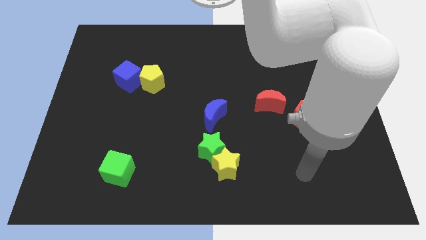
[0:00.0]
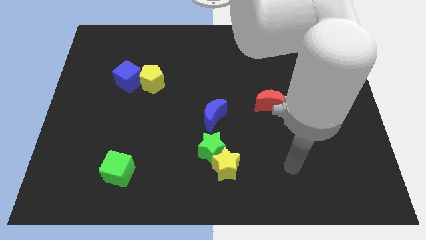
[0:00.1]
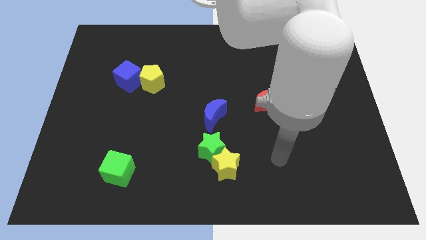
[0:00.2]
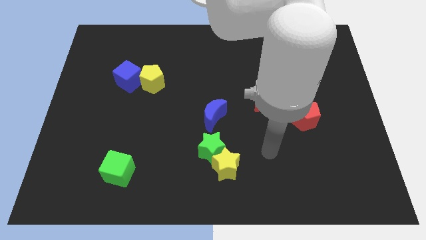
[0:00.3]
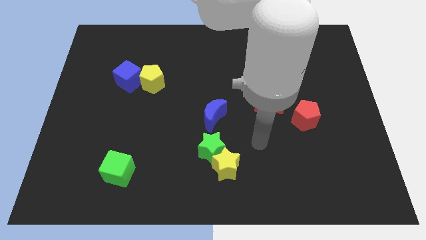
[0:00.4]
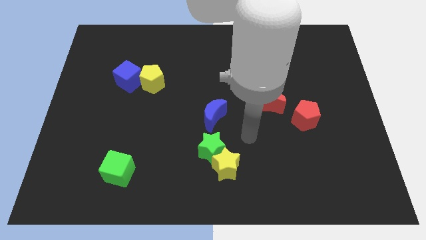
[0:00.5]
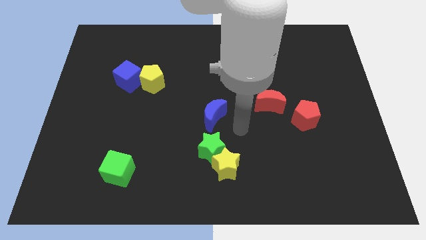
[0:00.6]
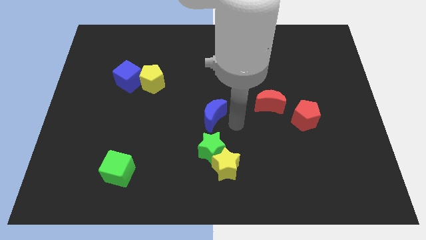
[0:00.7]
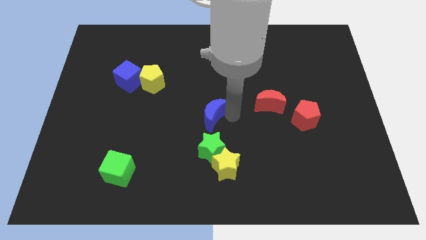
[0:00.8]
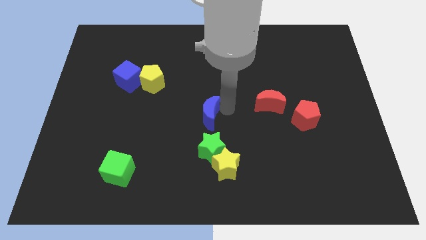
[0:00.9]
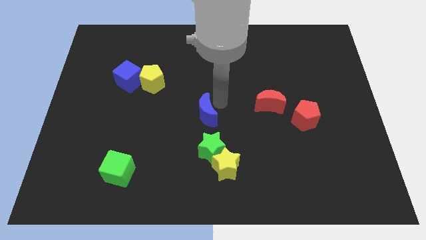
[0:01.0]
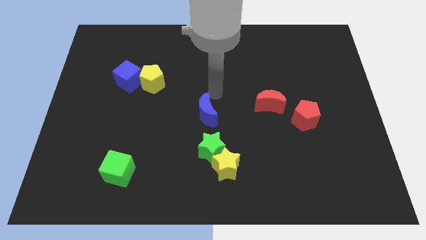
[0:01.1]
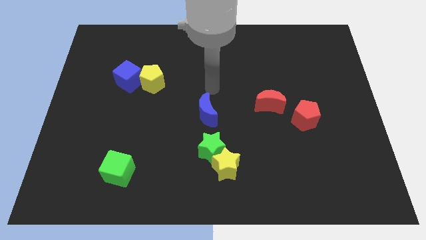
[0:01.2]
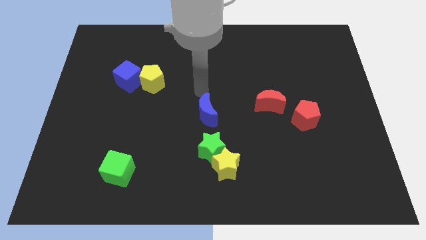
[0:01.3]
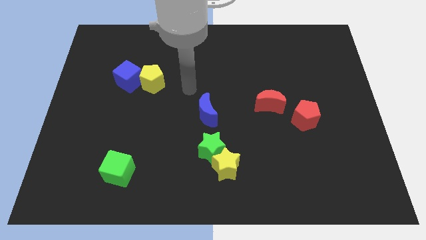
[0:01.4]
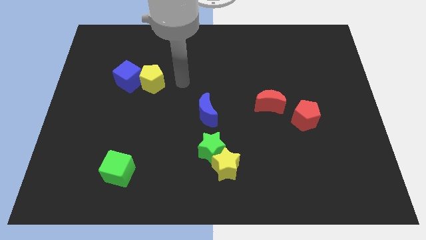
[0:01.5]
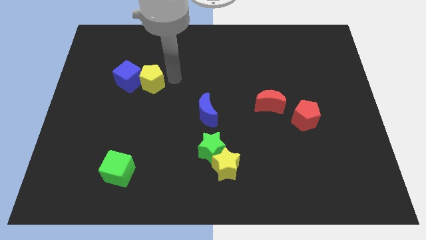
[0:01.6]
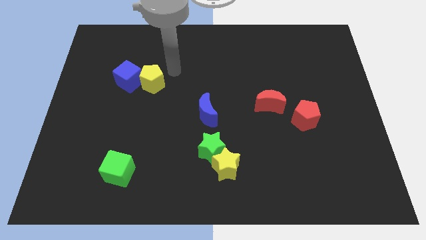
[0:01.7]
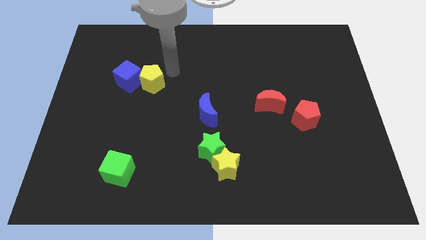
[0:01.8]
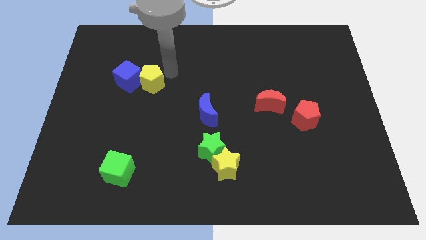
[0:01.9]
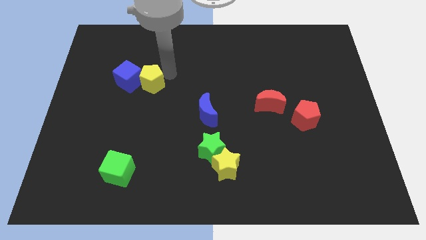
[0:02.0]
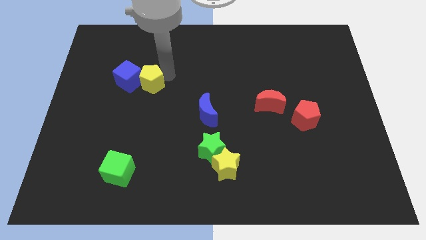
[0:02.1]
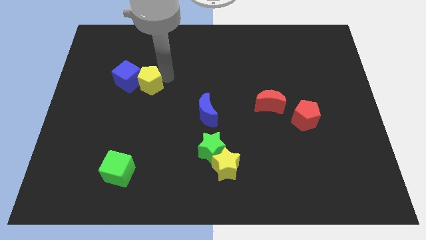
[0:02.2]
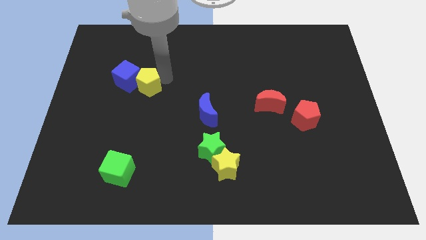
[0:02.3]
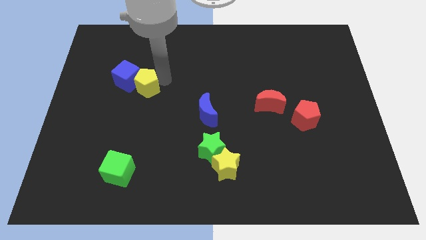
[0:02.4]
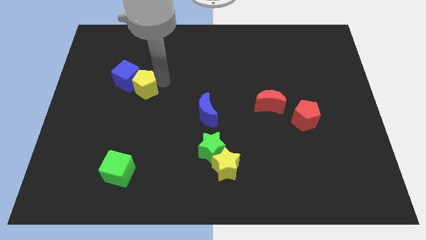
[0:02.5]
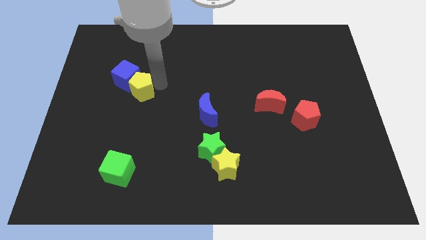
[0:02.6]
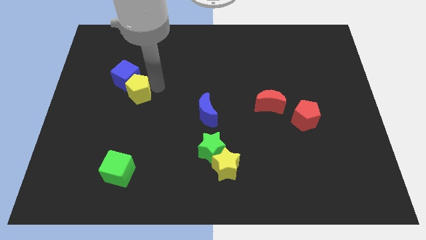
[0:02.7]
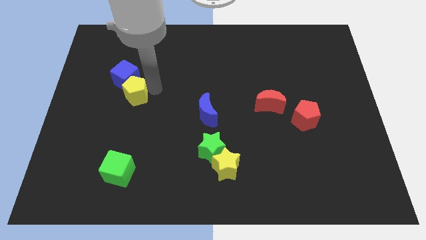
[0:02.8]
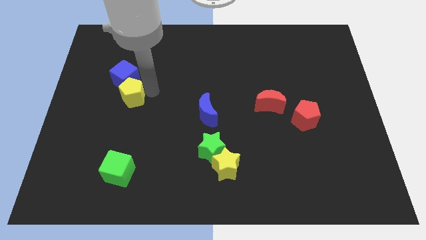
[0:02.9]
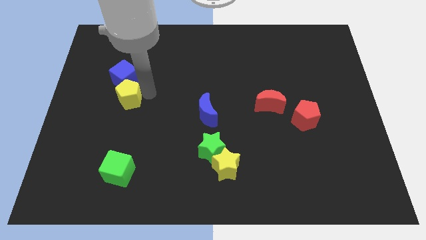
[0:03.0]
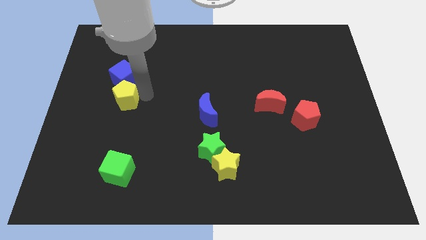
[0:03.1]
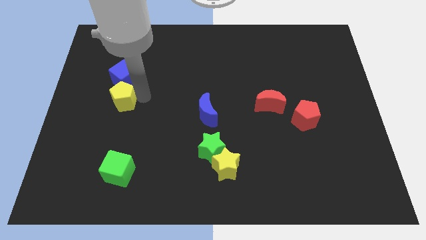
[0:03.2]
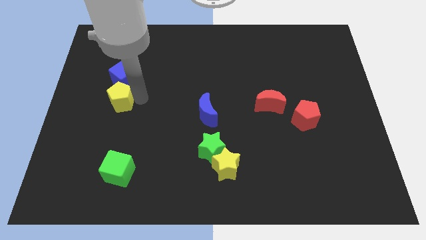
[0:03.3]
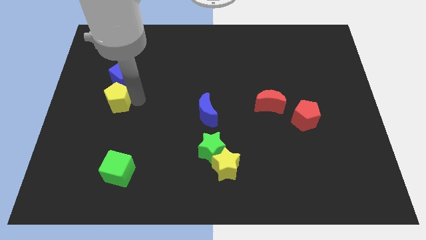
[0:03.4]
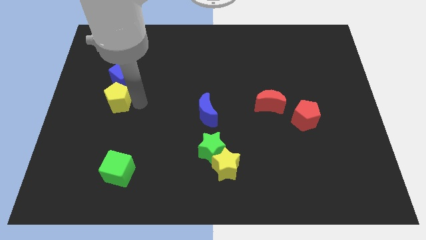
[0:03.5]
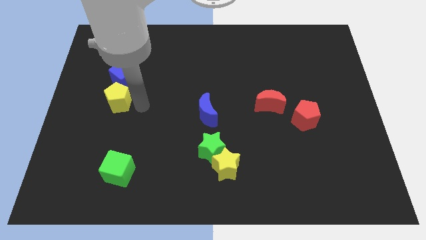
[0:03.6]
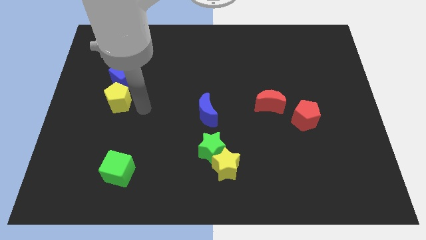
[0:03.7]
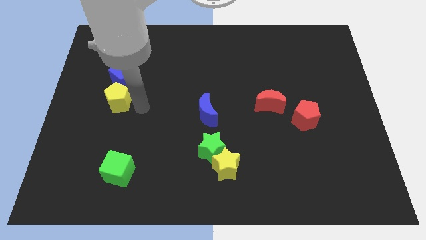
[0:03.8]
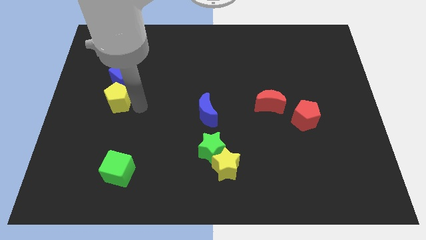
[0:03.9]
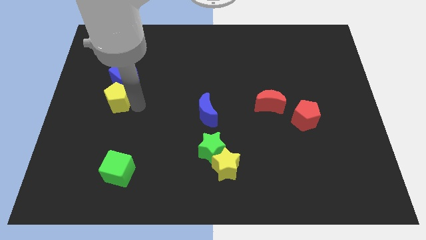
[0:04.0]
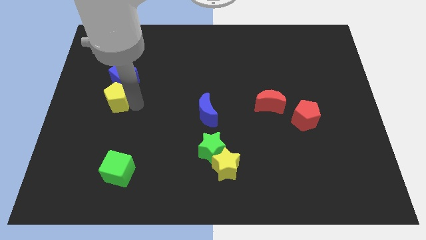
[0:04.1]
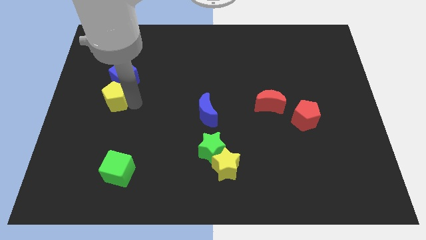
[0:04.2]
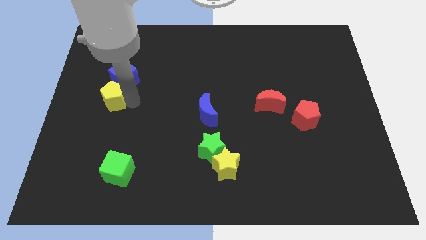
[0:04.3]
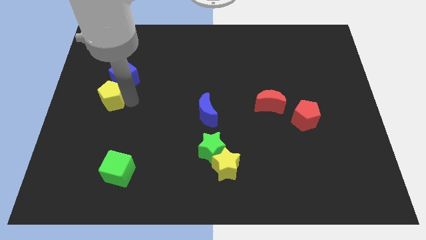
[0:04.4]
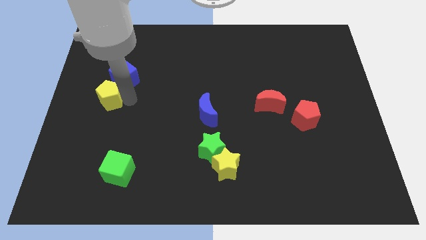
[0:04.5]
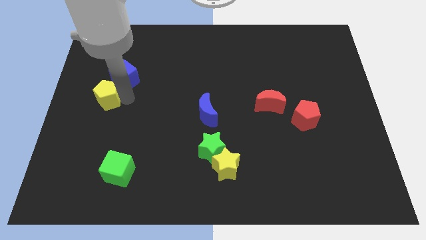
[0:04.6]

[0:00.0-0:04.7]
slide the yellow pentagon to the center left

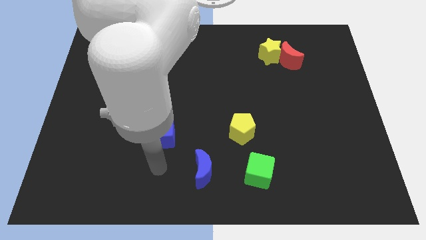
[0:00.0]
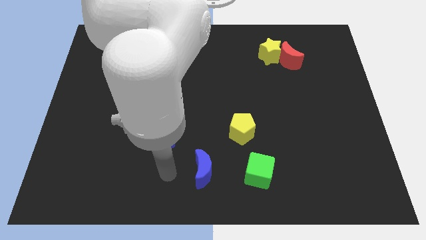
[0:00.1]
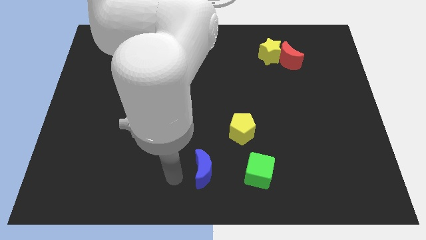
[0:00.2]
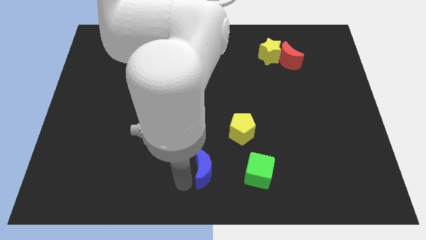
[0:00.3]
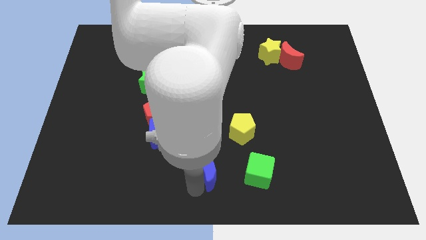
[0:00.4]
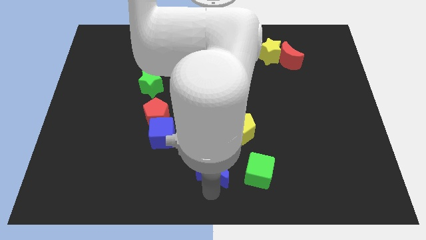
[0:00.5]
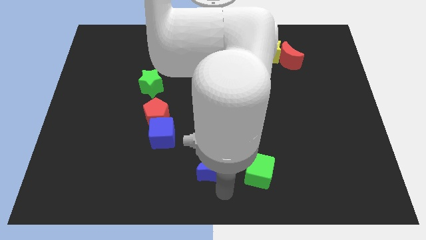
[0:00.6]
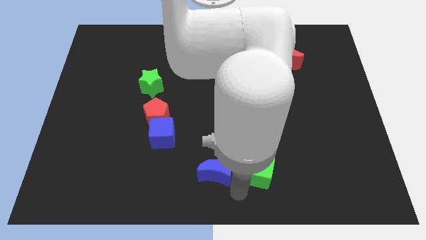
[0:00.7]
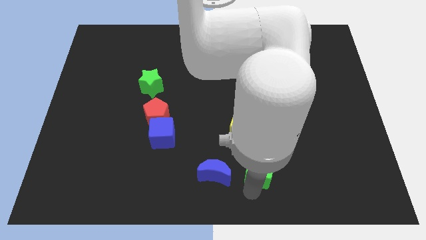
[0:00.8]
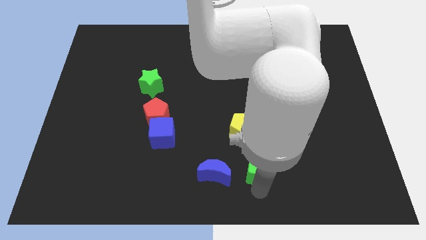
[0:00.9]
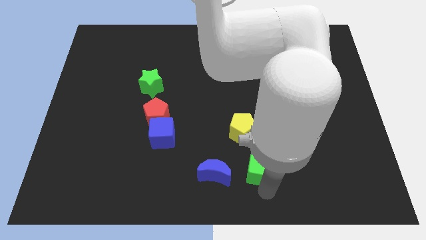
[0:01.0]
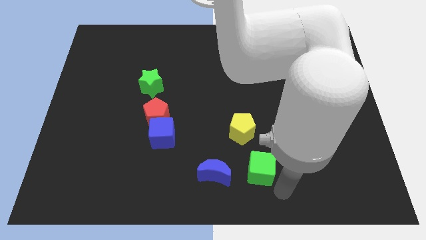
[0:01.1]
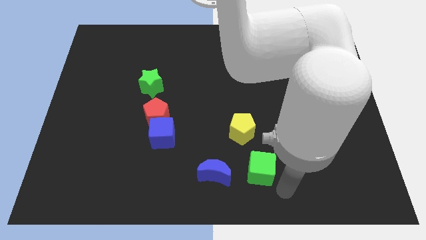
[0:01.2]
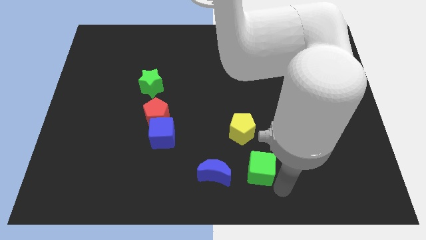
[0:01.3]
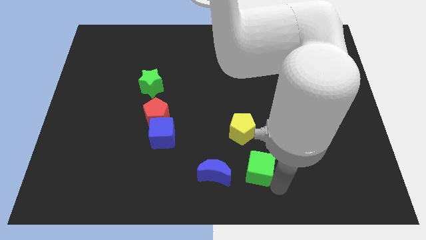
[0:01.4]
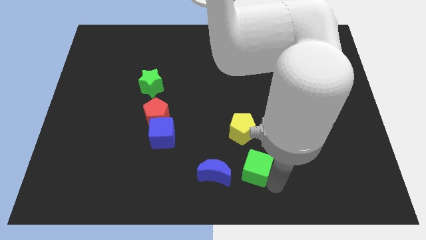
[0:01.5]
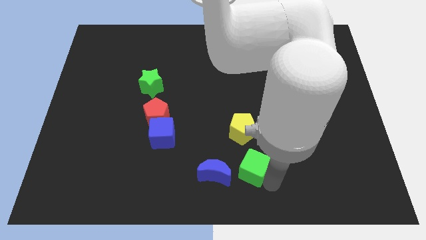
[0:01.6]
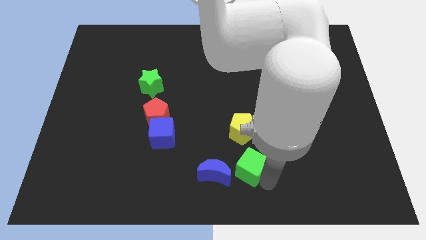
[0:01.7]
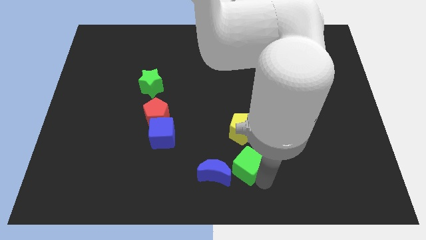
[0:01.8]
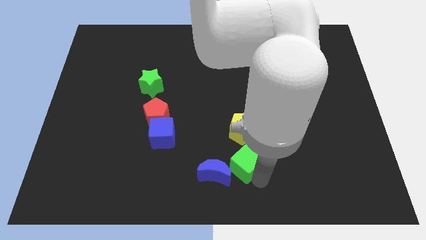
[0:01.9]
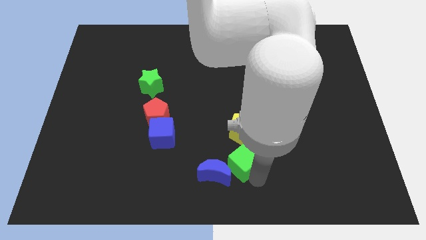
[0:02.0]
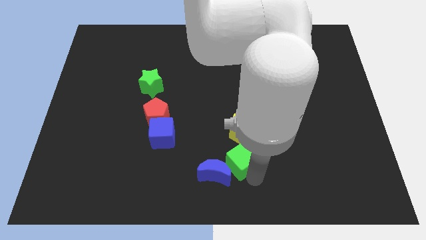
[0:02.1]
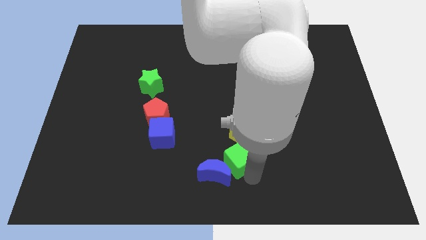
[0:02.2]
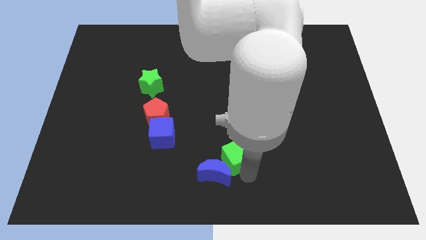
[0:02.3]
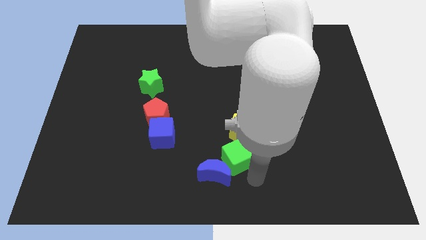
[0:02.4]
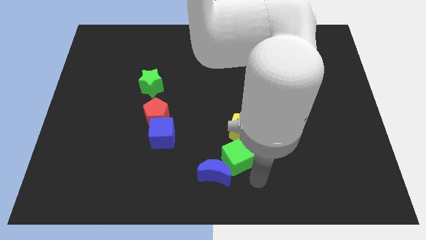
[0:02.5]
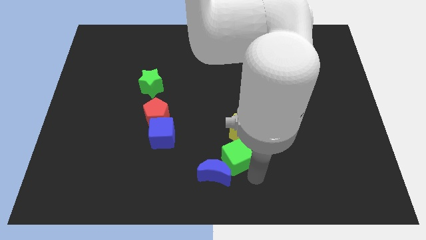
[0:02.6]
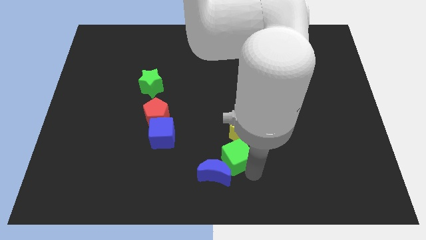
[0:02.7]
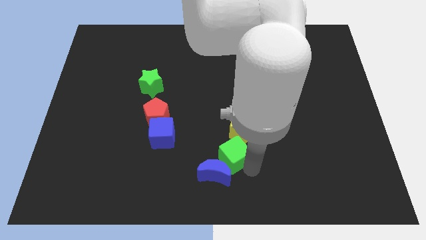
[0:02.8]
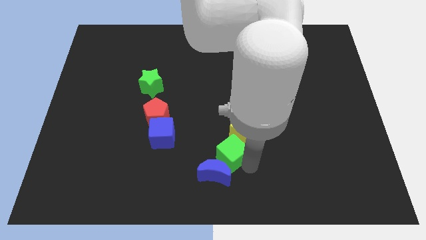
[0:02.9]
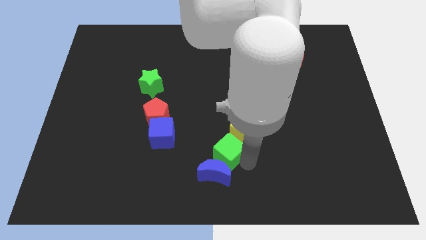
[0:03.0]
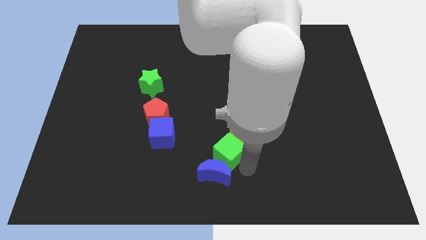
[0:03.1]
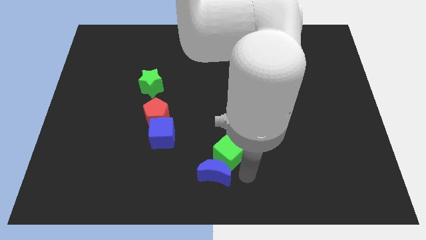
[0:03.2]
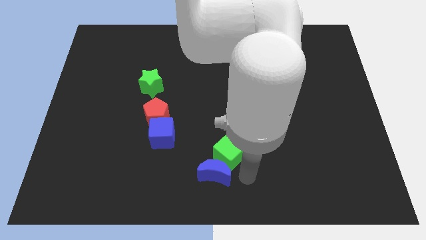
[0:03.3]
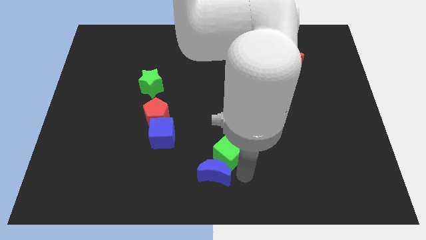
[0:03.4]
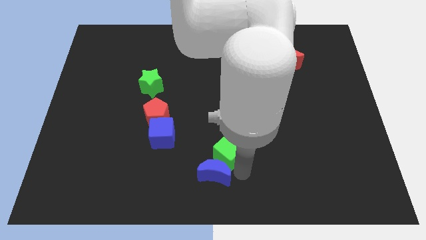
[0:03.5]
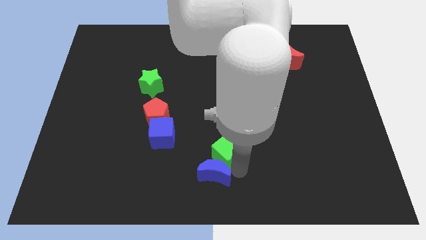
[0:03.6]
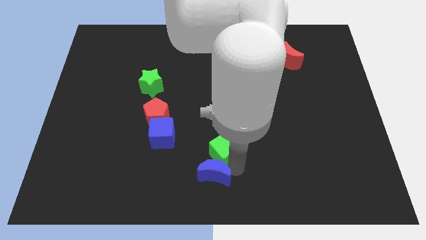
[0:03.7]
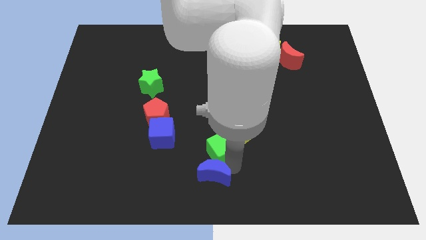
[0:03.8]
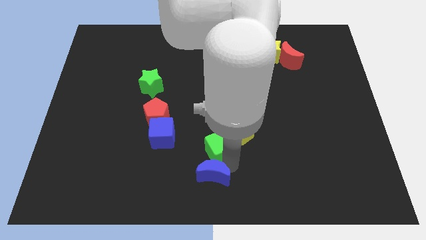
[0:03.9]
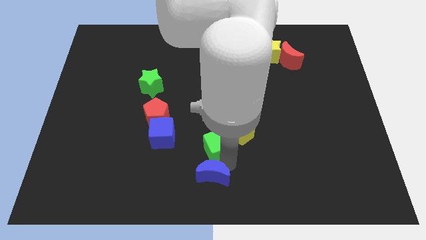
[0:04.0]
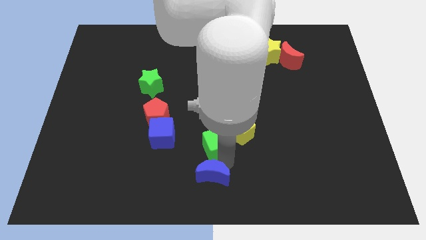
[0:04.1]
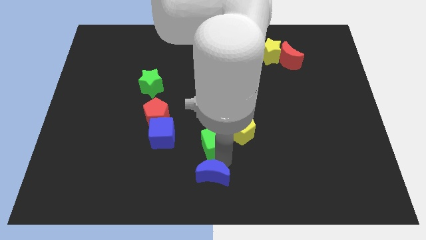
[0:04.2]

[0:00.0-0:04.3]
put the green cube to the center
